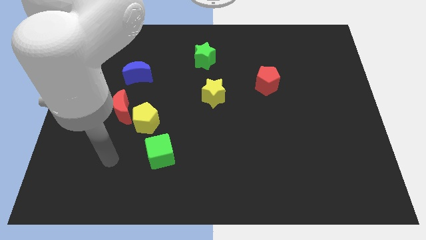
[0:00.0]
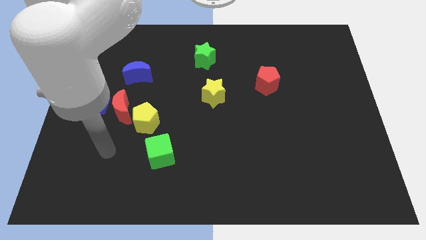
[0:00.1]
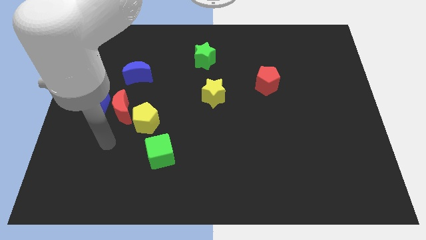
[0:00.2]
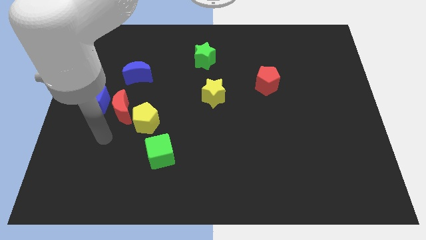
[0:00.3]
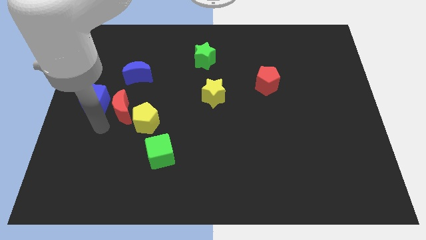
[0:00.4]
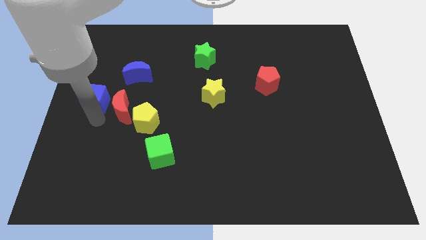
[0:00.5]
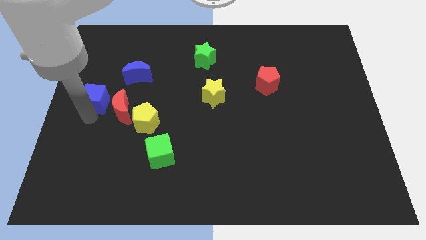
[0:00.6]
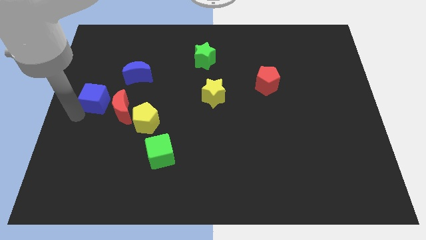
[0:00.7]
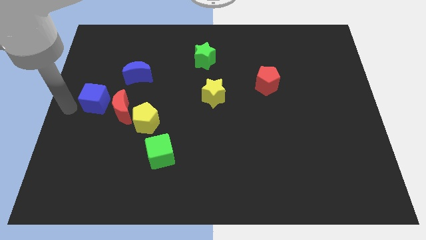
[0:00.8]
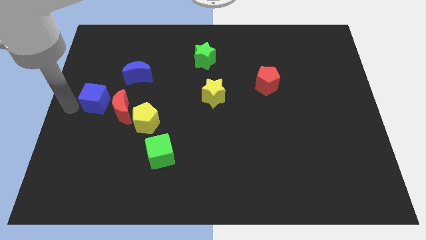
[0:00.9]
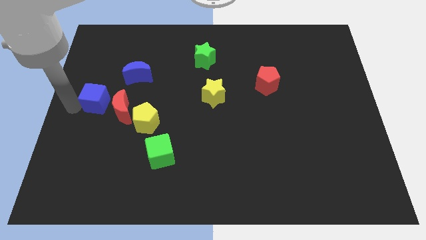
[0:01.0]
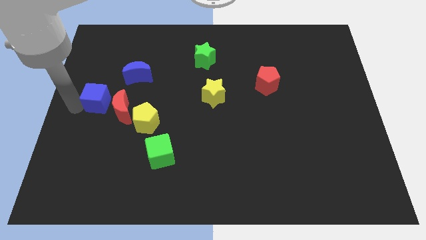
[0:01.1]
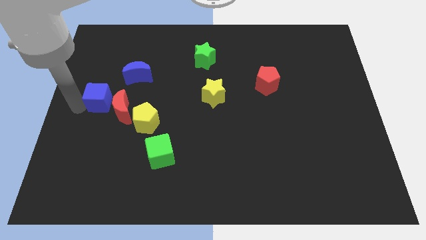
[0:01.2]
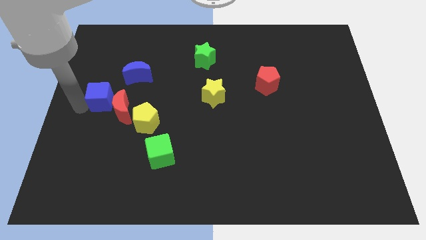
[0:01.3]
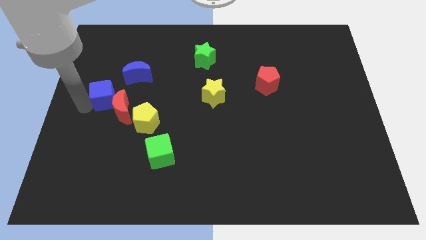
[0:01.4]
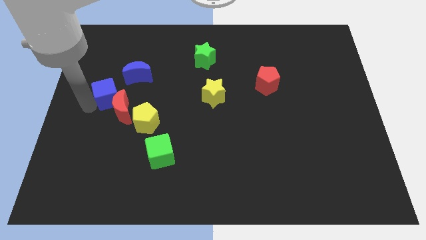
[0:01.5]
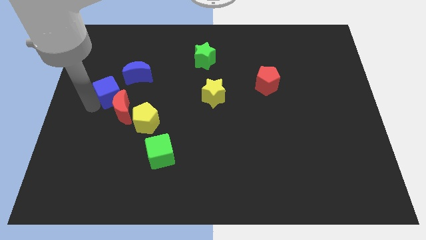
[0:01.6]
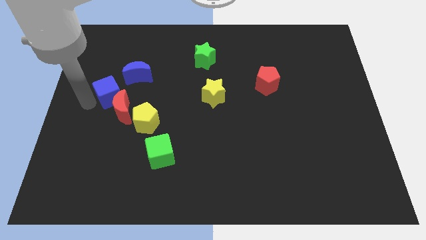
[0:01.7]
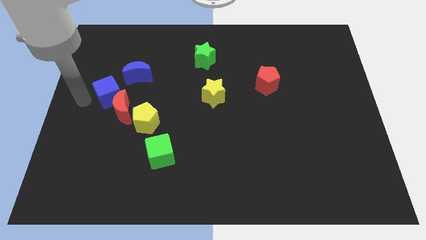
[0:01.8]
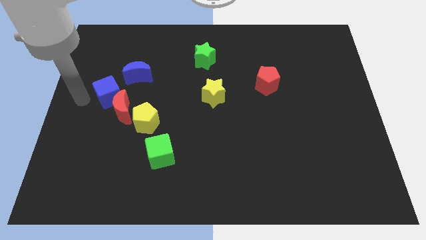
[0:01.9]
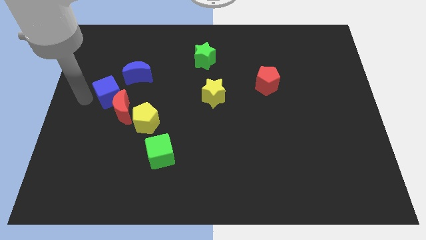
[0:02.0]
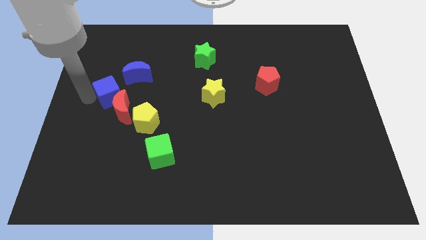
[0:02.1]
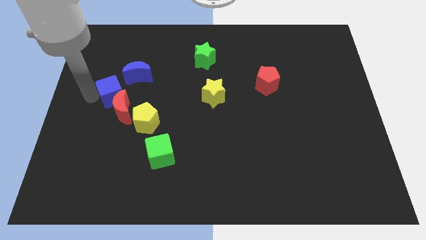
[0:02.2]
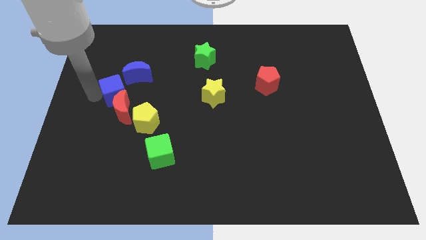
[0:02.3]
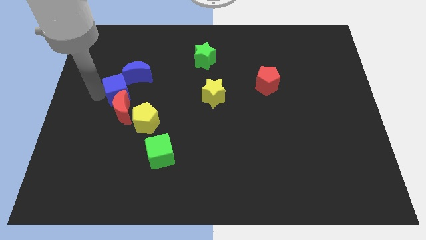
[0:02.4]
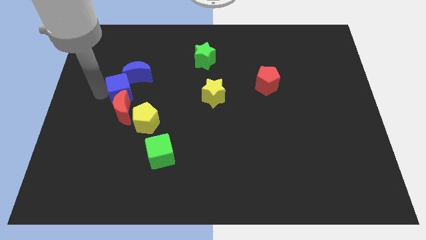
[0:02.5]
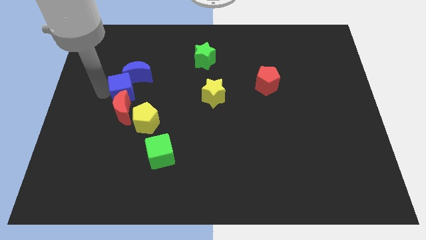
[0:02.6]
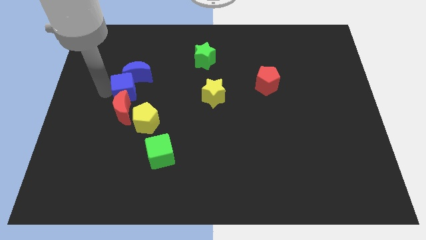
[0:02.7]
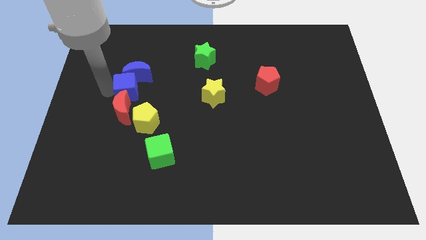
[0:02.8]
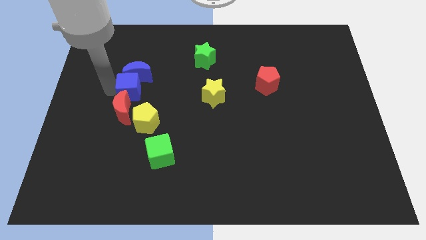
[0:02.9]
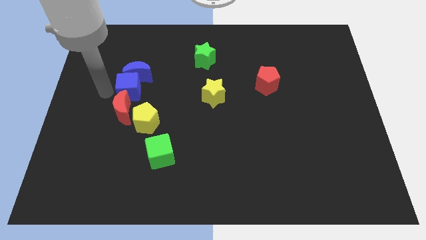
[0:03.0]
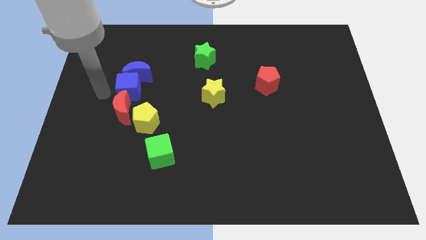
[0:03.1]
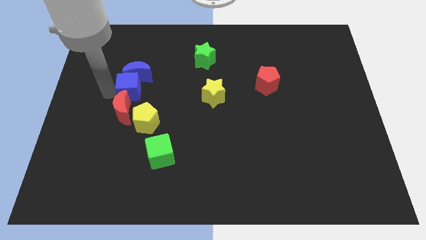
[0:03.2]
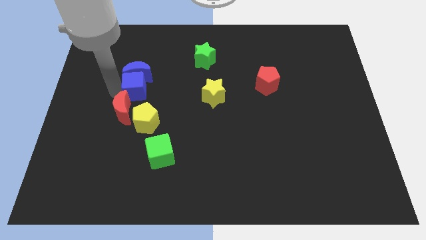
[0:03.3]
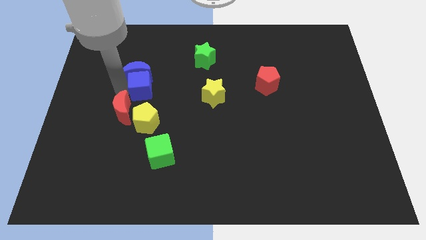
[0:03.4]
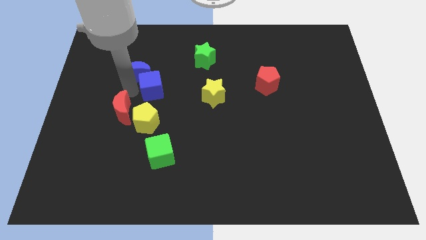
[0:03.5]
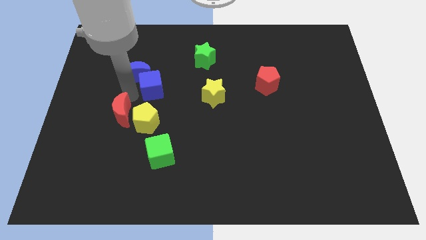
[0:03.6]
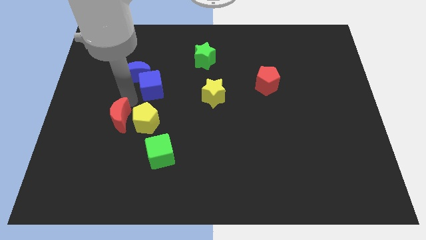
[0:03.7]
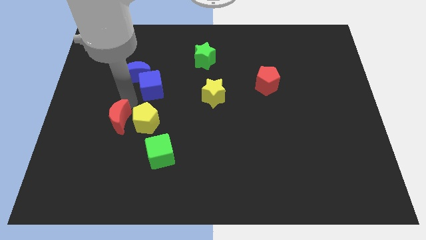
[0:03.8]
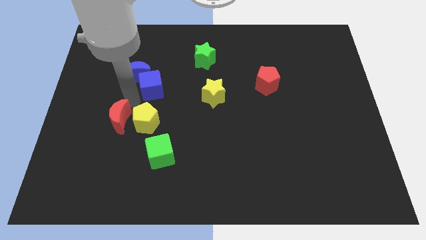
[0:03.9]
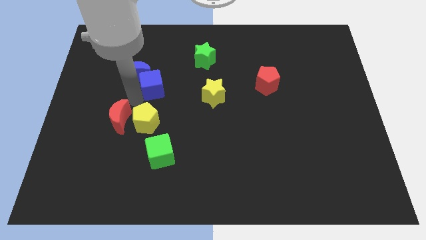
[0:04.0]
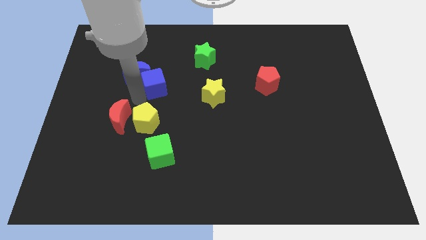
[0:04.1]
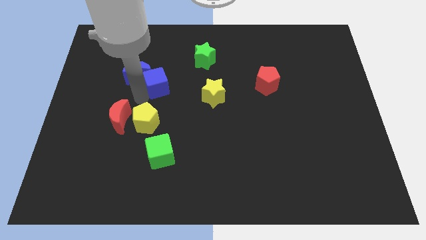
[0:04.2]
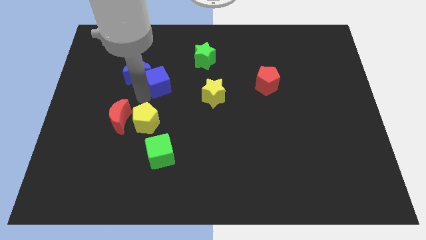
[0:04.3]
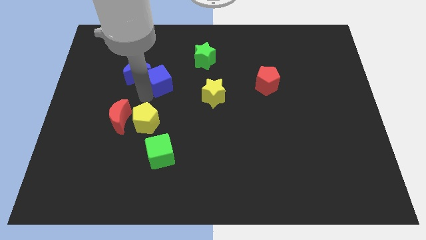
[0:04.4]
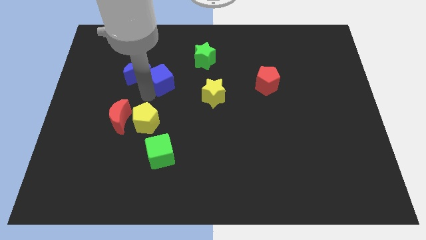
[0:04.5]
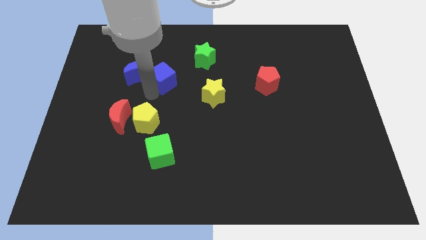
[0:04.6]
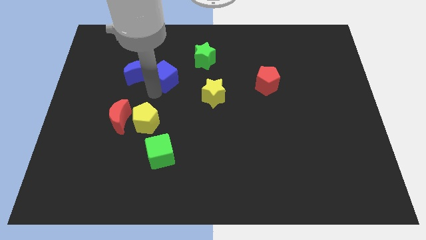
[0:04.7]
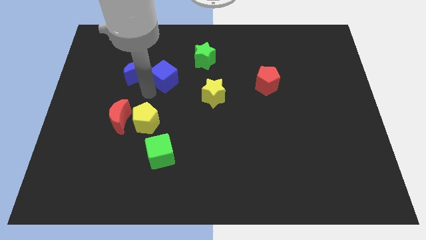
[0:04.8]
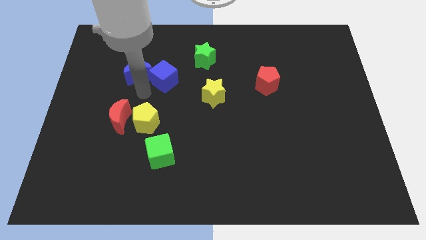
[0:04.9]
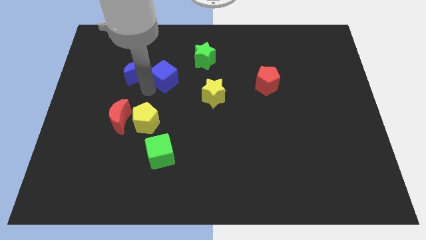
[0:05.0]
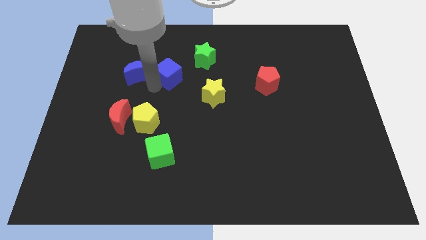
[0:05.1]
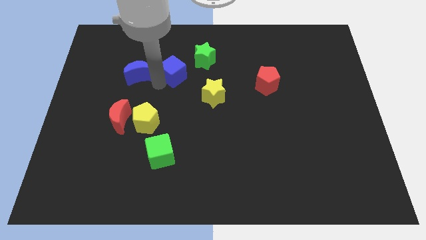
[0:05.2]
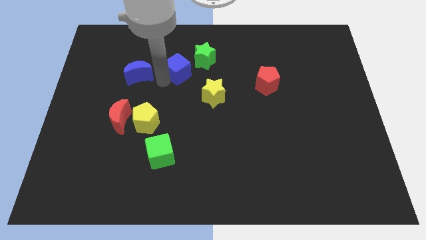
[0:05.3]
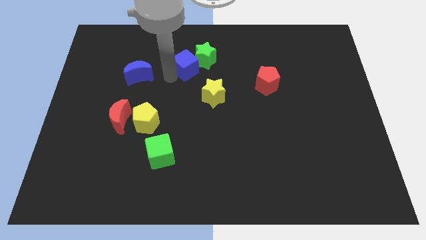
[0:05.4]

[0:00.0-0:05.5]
move the blue cube to the green star

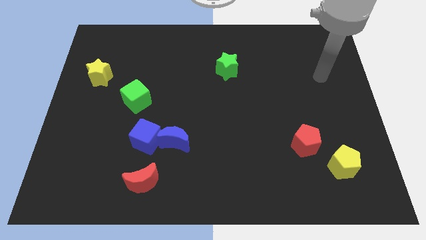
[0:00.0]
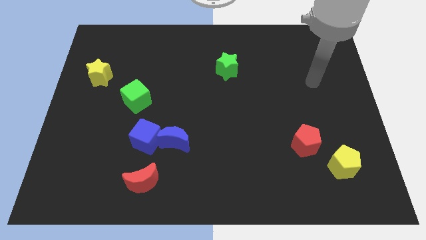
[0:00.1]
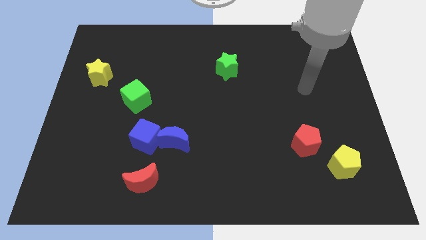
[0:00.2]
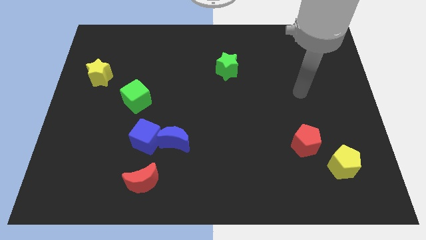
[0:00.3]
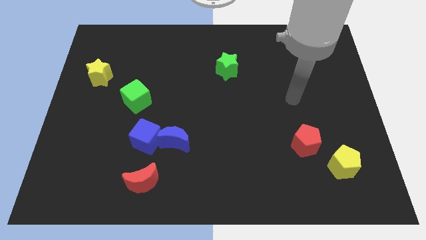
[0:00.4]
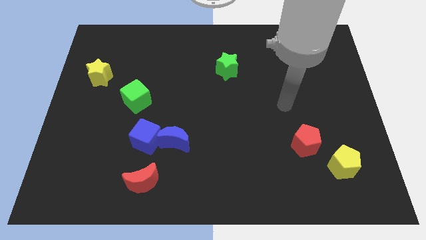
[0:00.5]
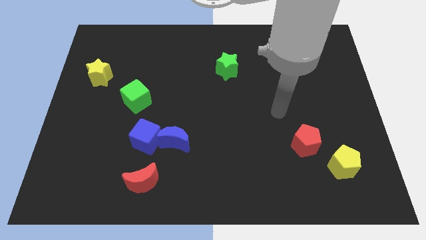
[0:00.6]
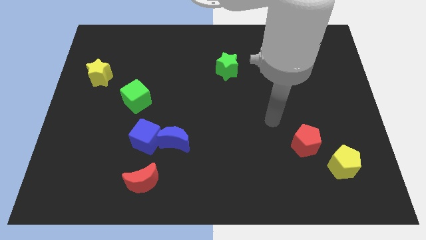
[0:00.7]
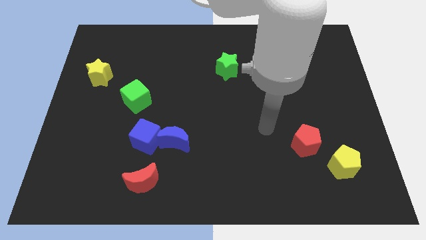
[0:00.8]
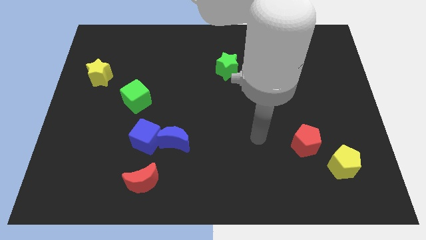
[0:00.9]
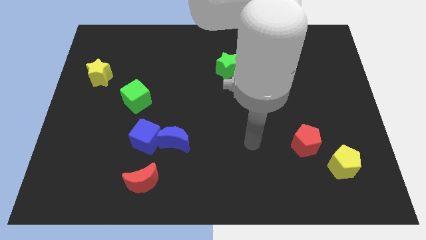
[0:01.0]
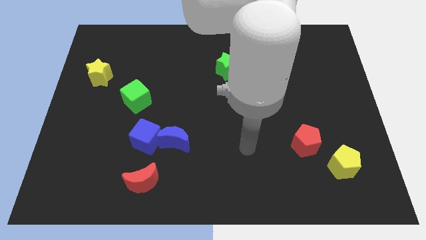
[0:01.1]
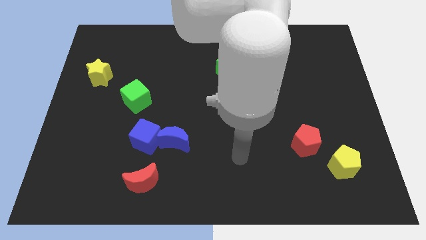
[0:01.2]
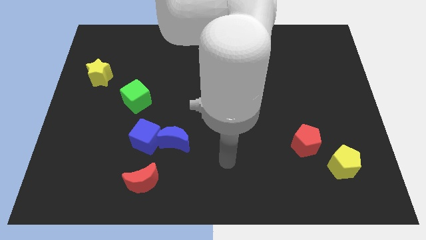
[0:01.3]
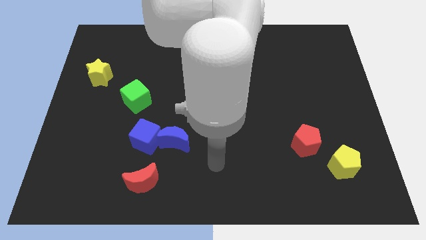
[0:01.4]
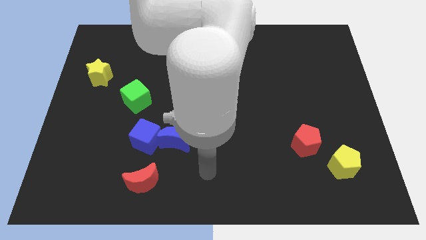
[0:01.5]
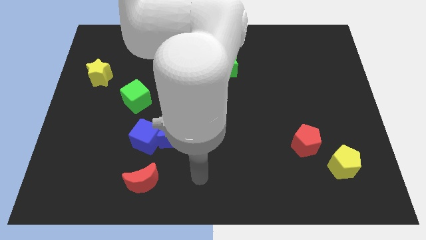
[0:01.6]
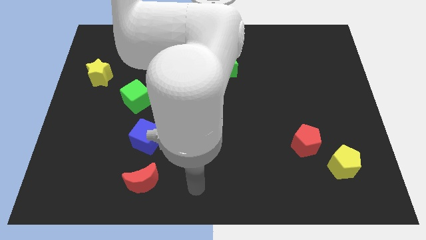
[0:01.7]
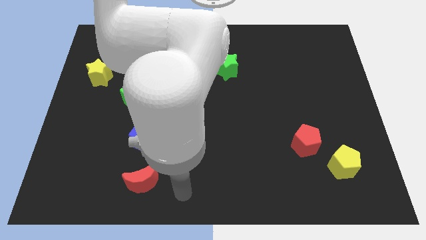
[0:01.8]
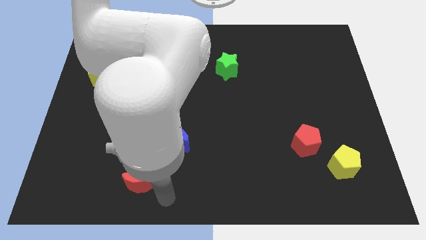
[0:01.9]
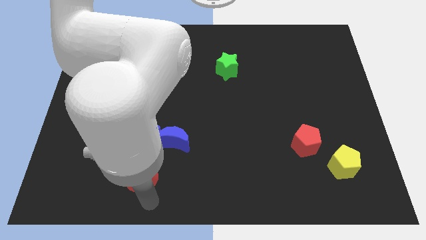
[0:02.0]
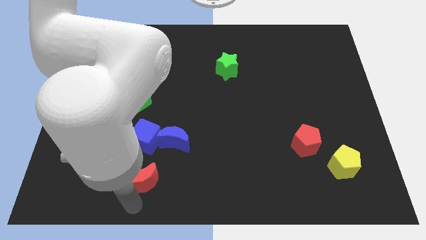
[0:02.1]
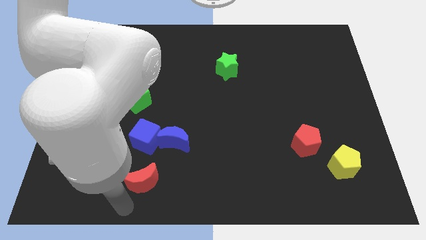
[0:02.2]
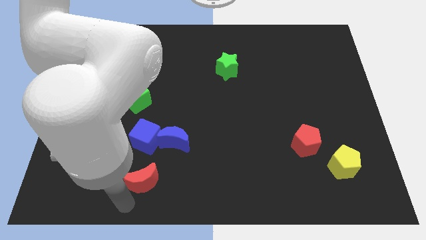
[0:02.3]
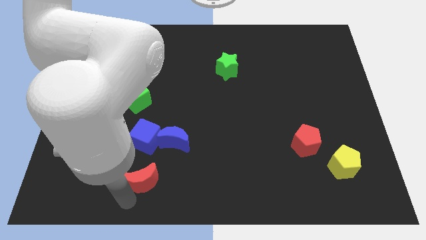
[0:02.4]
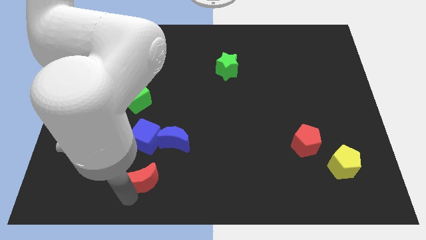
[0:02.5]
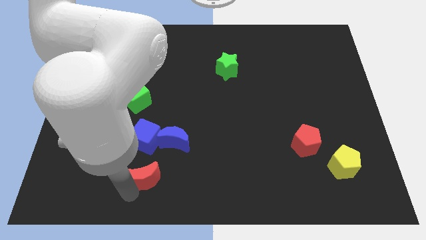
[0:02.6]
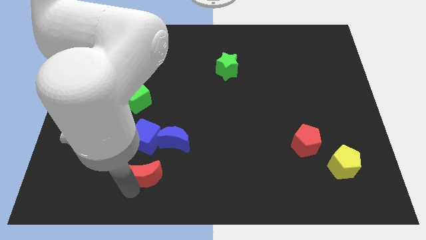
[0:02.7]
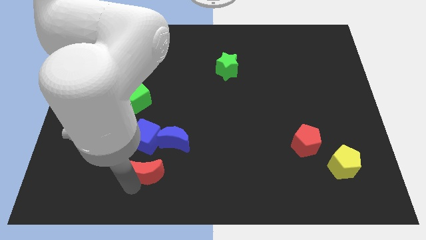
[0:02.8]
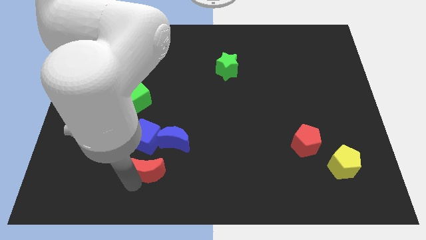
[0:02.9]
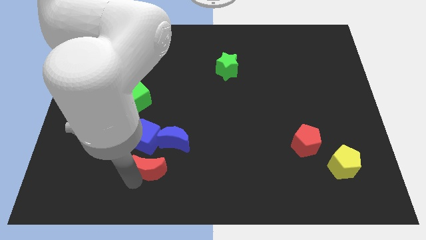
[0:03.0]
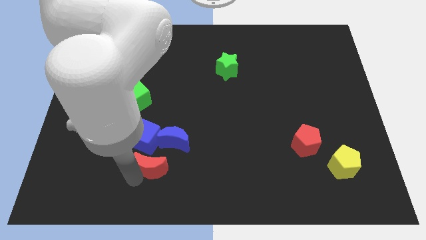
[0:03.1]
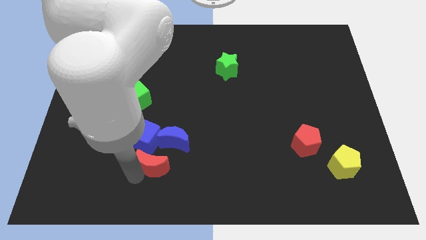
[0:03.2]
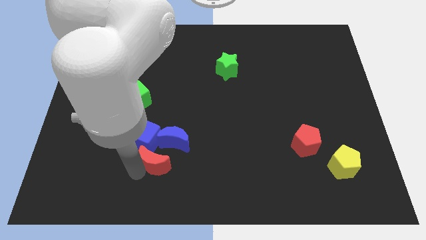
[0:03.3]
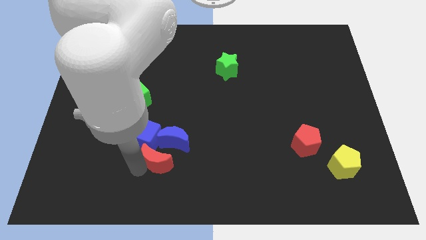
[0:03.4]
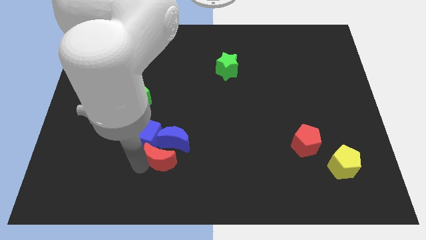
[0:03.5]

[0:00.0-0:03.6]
put the red moon towards the blue moon
